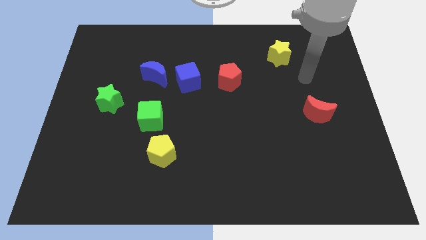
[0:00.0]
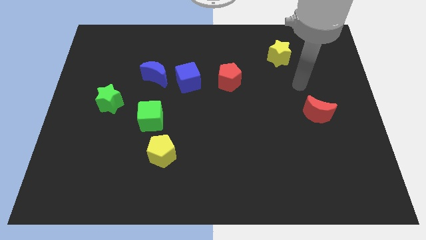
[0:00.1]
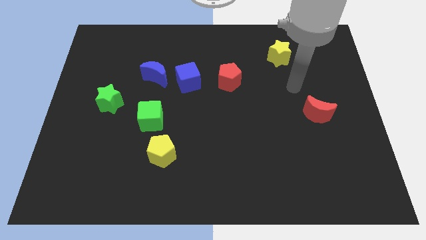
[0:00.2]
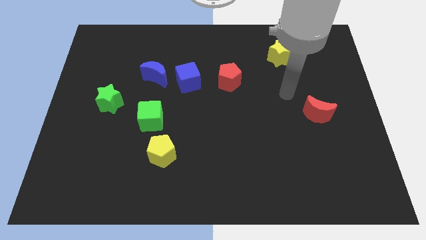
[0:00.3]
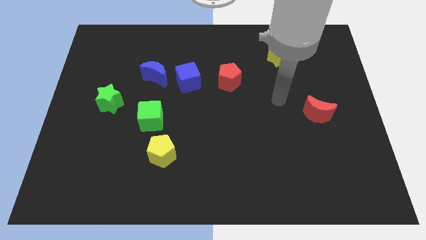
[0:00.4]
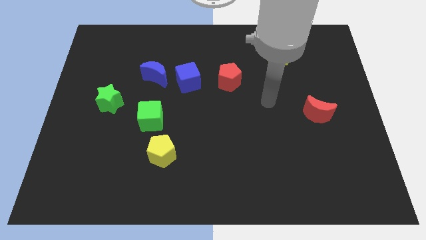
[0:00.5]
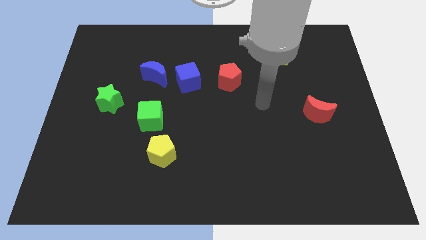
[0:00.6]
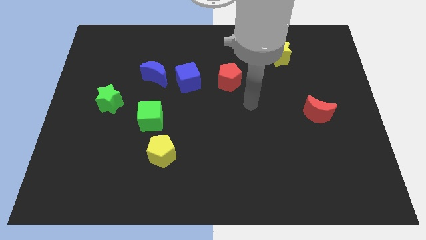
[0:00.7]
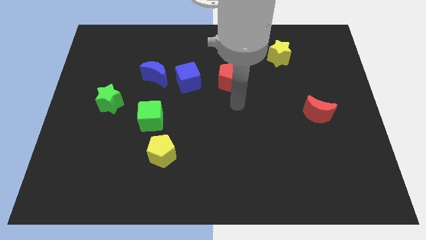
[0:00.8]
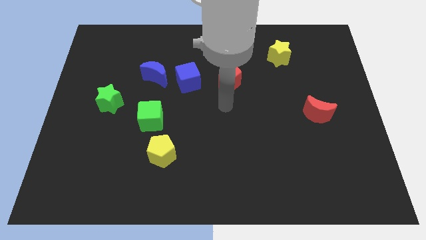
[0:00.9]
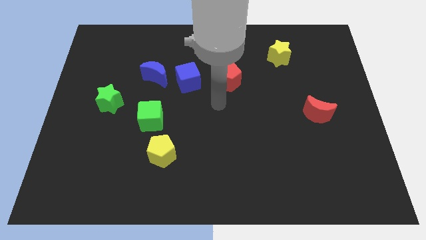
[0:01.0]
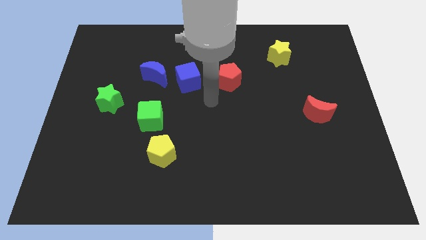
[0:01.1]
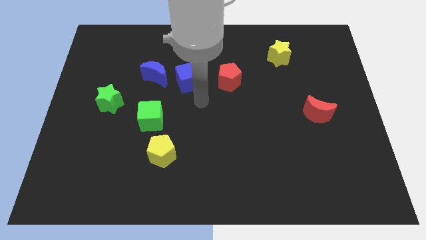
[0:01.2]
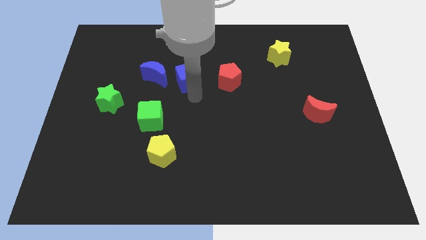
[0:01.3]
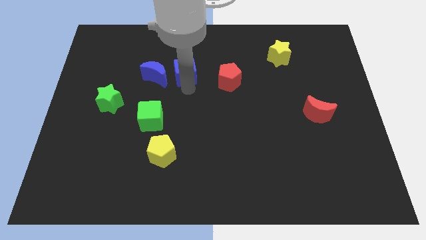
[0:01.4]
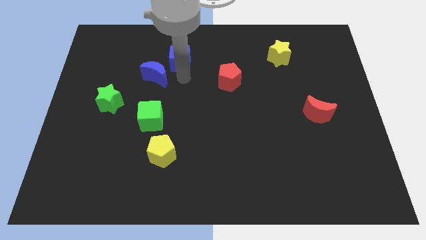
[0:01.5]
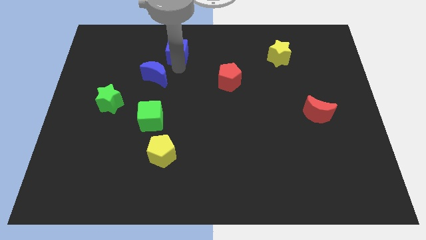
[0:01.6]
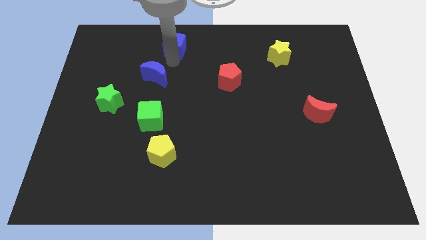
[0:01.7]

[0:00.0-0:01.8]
pull the blue moon apart from the blue cube

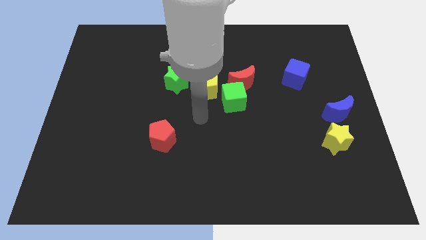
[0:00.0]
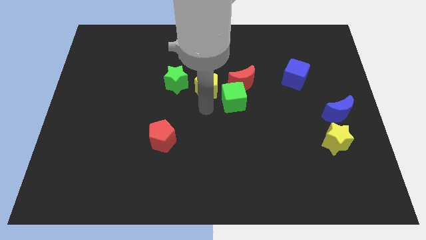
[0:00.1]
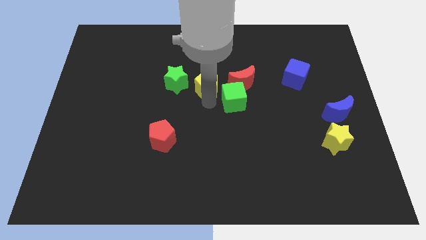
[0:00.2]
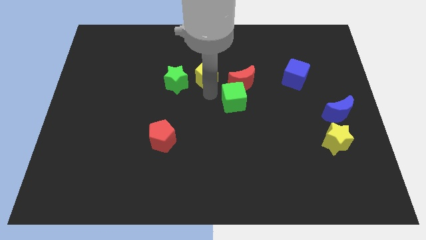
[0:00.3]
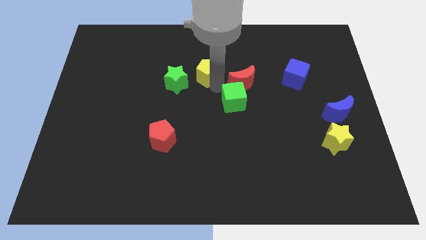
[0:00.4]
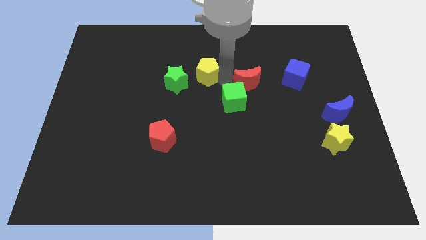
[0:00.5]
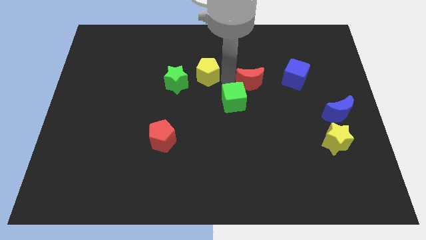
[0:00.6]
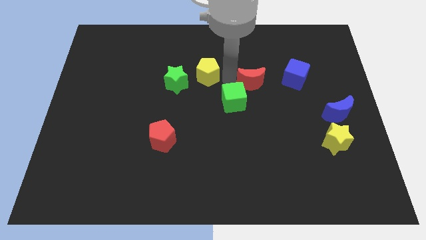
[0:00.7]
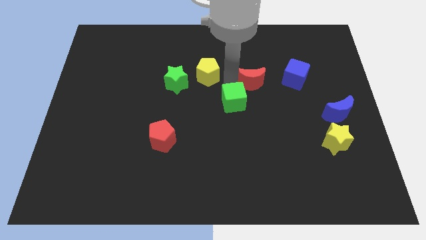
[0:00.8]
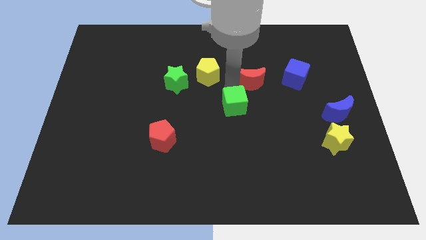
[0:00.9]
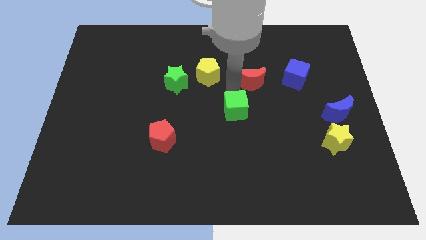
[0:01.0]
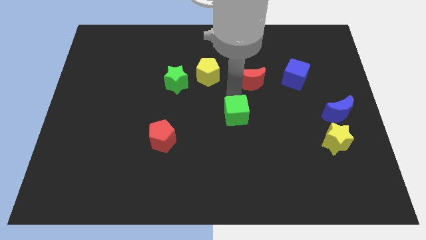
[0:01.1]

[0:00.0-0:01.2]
move the green cube away from the red moon and yellow pentagon

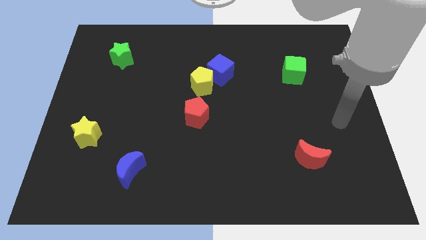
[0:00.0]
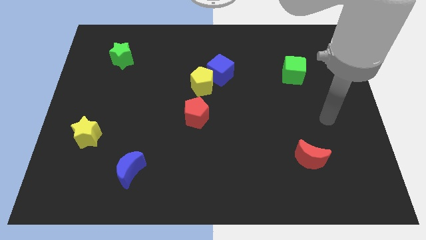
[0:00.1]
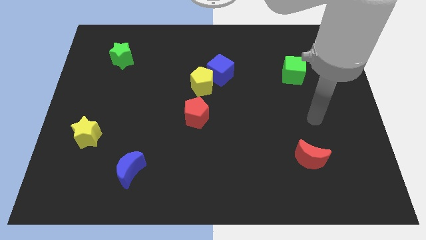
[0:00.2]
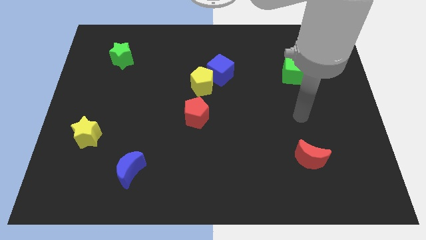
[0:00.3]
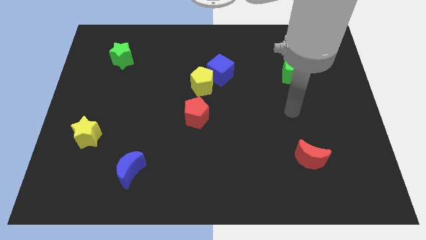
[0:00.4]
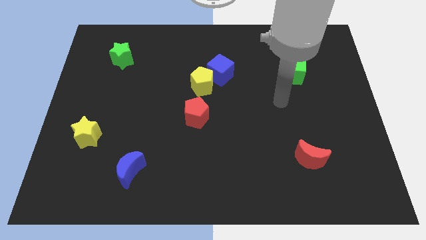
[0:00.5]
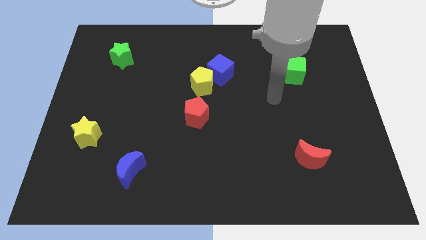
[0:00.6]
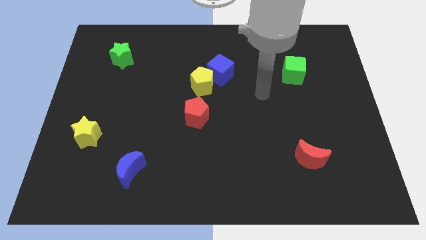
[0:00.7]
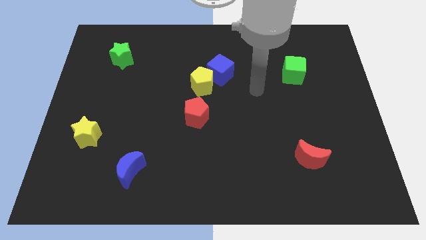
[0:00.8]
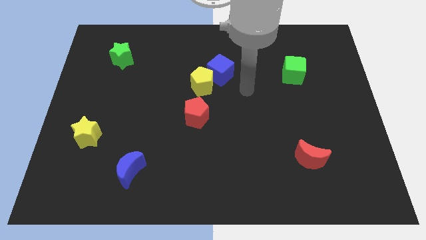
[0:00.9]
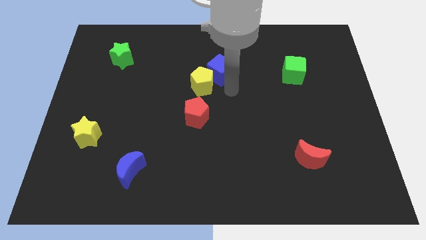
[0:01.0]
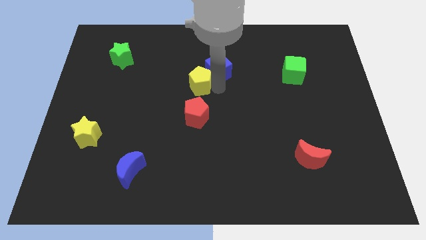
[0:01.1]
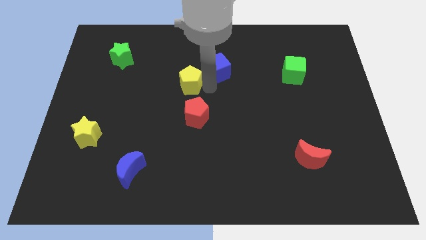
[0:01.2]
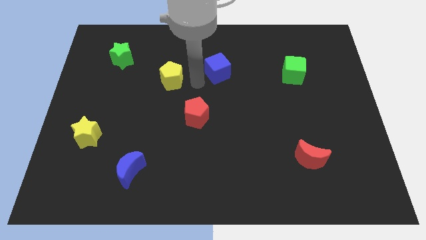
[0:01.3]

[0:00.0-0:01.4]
pull the blue cube apart from the yellow pentagon

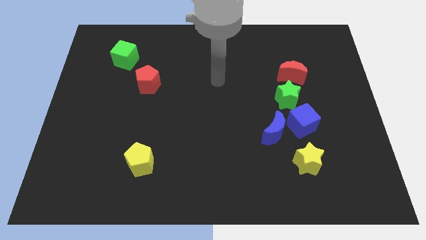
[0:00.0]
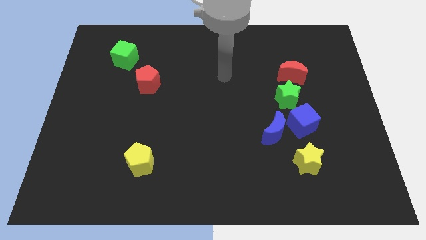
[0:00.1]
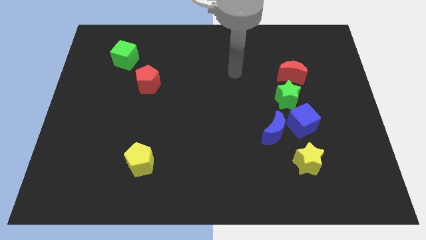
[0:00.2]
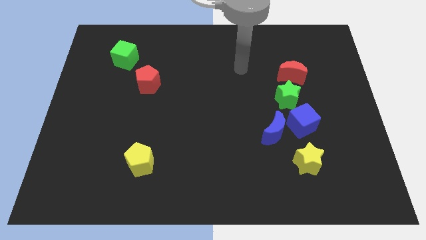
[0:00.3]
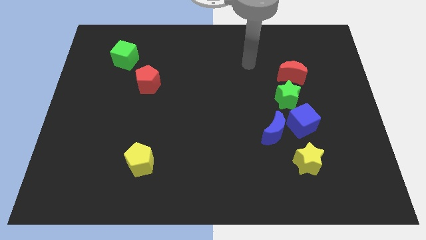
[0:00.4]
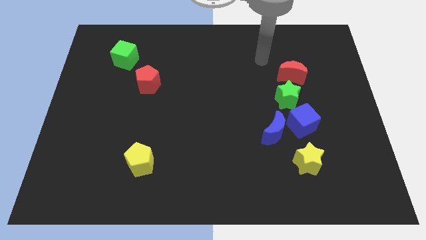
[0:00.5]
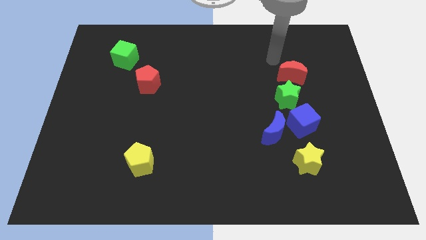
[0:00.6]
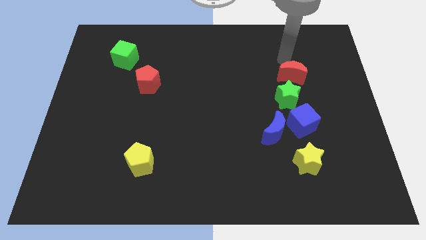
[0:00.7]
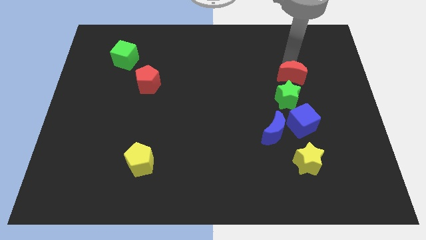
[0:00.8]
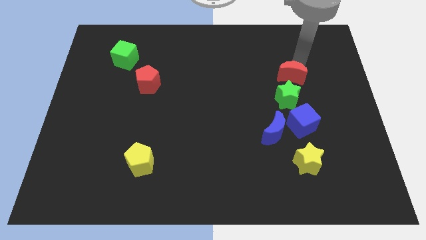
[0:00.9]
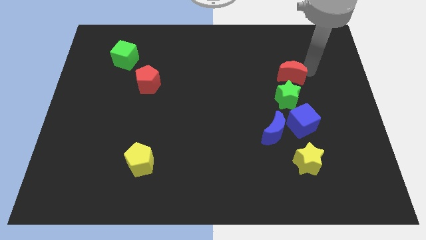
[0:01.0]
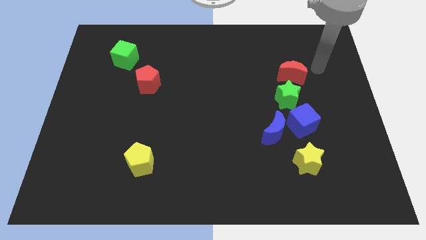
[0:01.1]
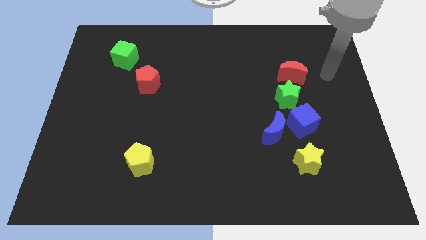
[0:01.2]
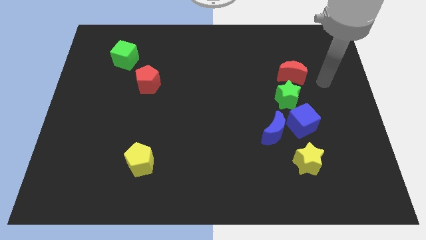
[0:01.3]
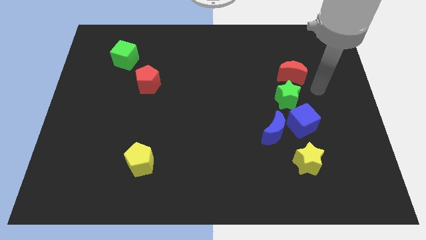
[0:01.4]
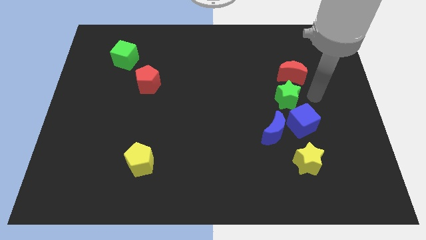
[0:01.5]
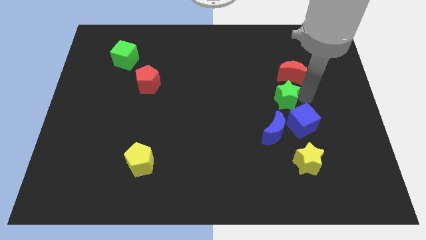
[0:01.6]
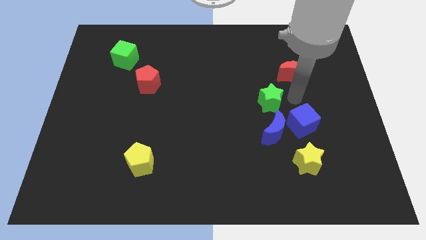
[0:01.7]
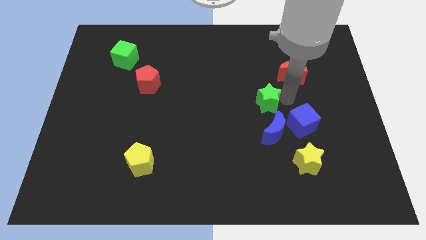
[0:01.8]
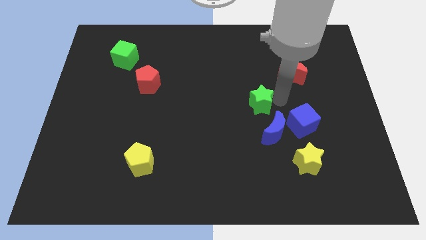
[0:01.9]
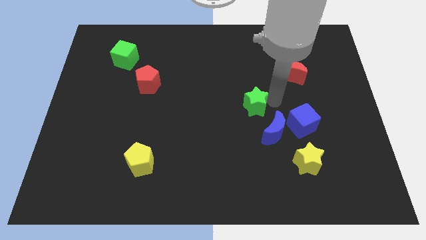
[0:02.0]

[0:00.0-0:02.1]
move the green star away from the blue cube and red moon

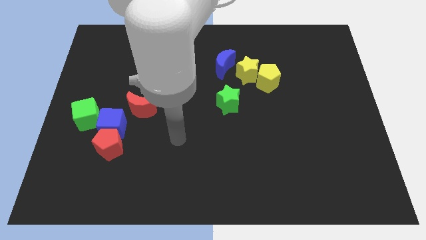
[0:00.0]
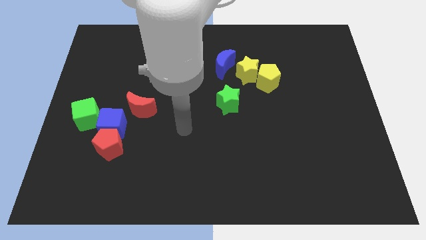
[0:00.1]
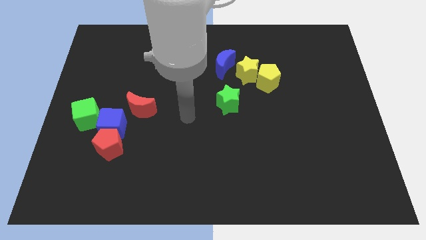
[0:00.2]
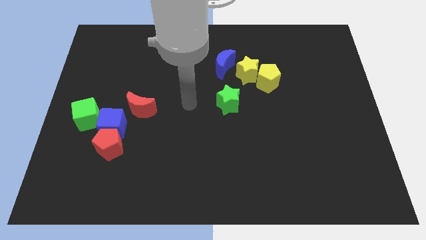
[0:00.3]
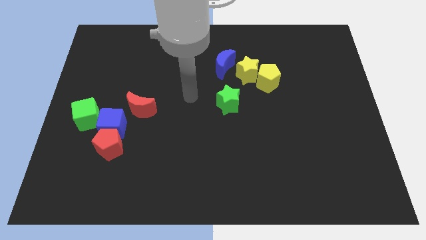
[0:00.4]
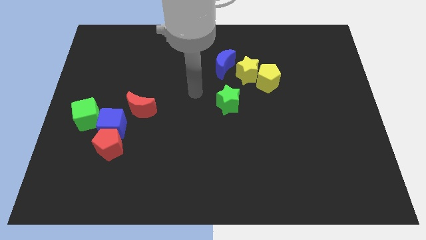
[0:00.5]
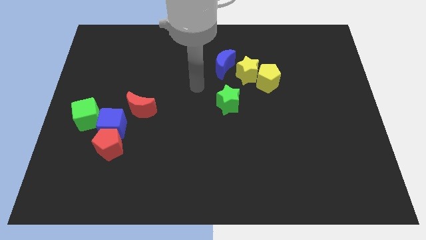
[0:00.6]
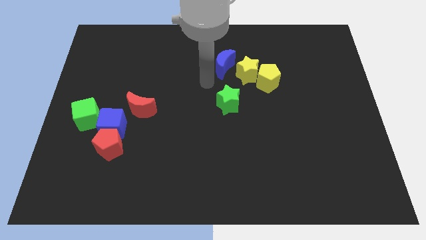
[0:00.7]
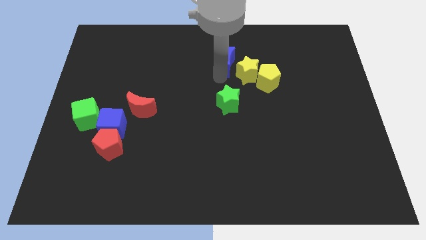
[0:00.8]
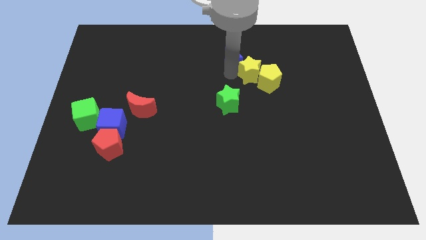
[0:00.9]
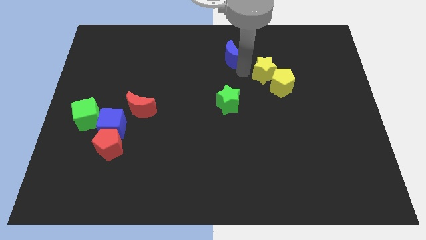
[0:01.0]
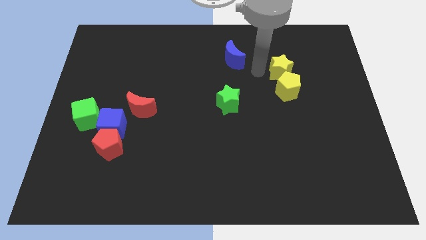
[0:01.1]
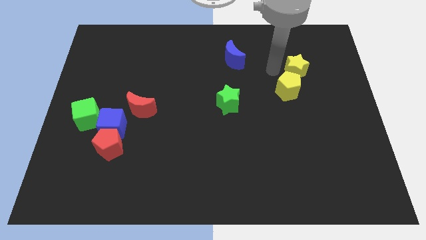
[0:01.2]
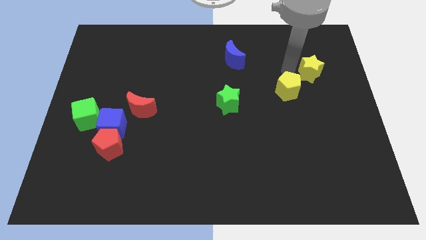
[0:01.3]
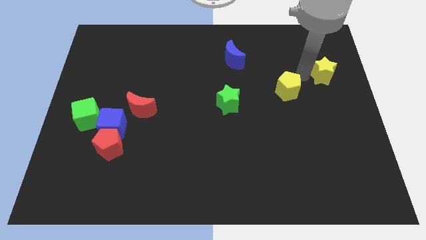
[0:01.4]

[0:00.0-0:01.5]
move the yellow pentagon away from the yellow star

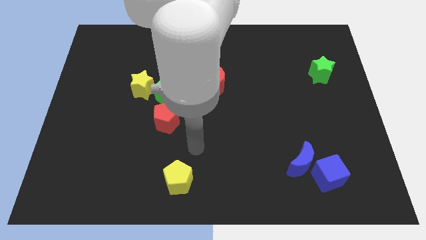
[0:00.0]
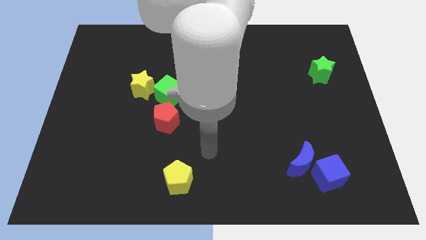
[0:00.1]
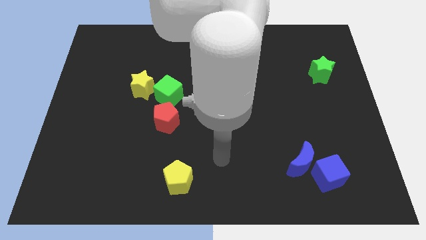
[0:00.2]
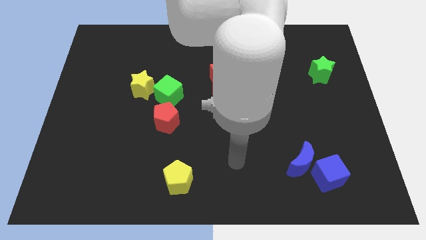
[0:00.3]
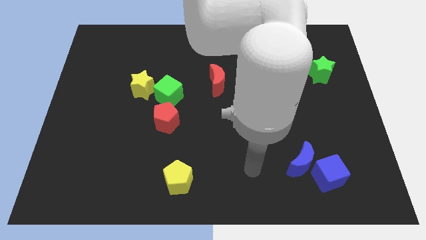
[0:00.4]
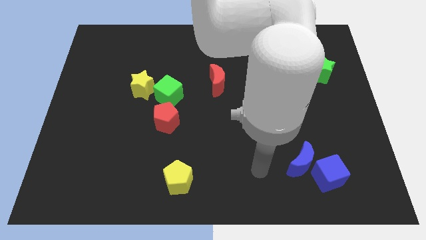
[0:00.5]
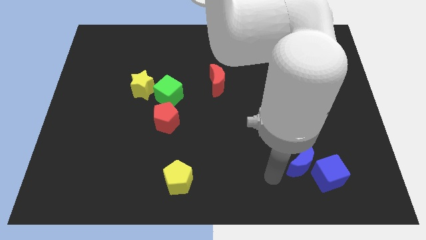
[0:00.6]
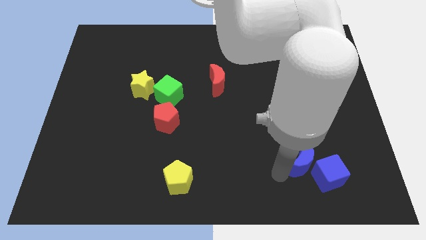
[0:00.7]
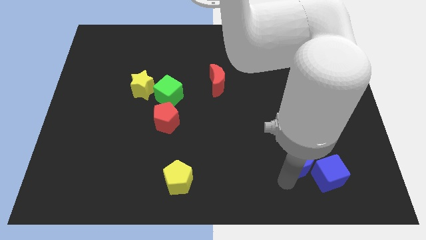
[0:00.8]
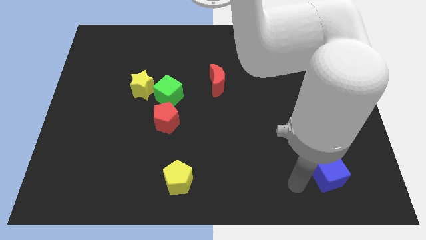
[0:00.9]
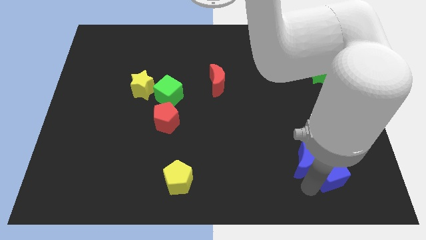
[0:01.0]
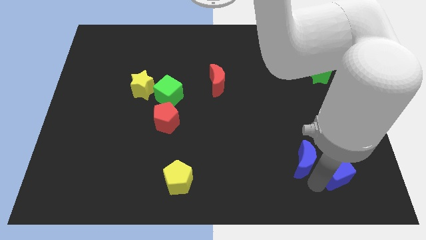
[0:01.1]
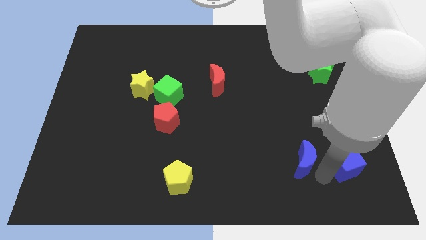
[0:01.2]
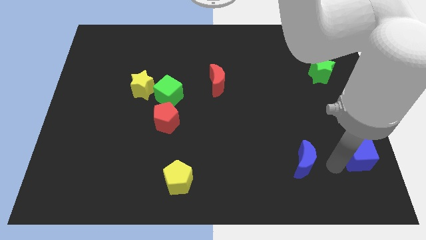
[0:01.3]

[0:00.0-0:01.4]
move the blue moon away from the blue cube

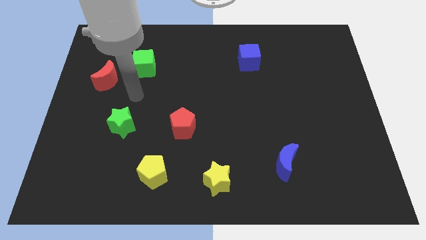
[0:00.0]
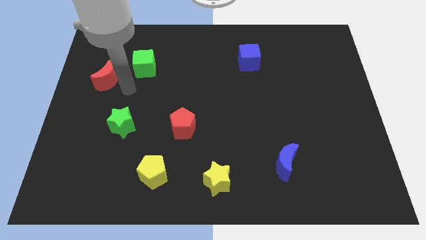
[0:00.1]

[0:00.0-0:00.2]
move the red moon away from the green cube
